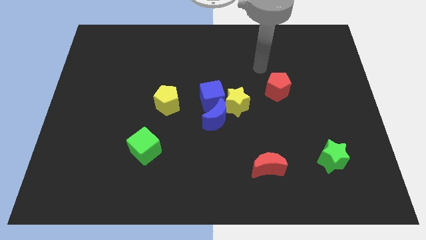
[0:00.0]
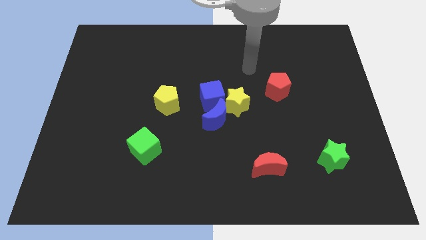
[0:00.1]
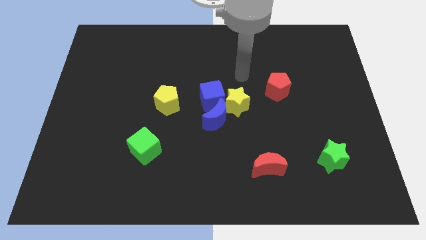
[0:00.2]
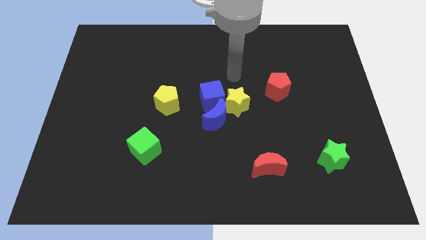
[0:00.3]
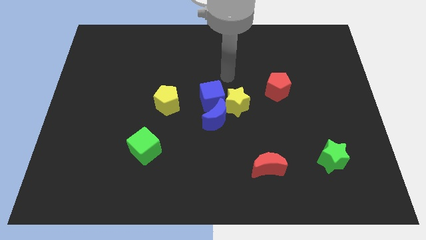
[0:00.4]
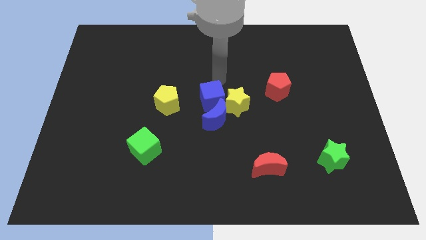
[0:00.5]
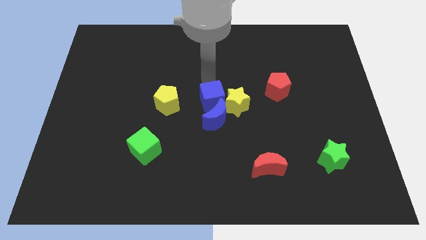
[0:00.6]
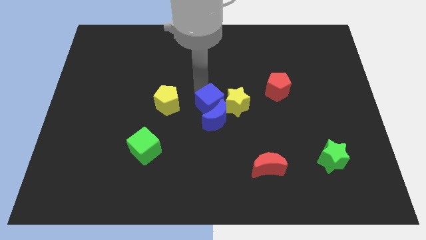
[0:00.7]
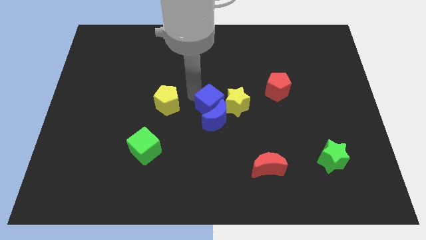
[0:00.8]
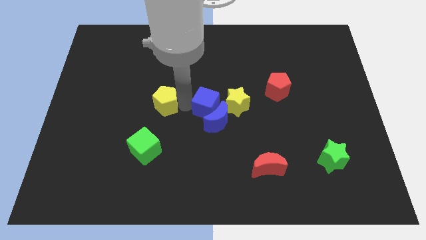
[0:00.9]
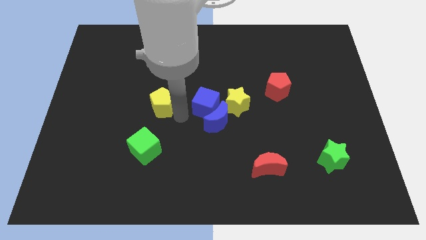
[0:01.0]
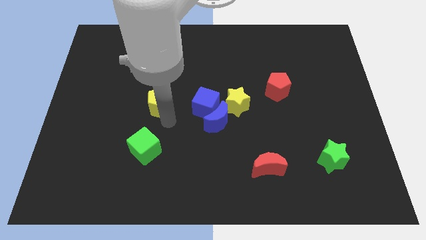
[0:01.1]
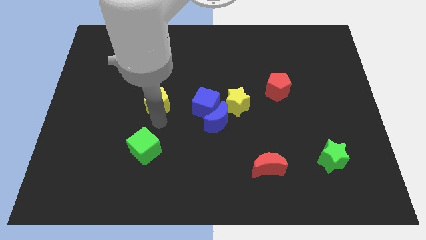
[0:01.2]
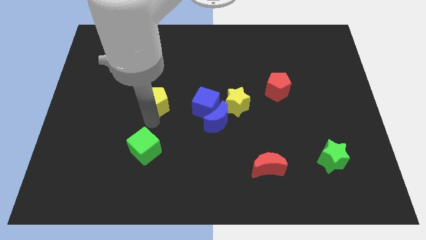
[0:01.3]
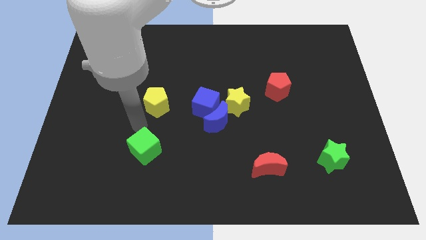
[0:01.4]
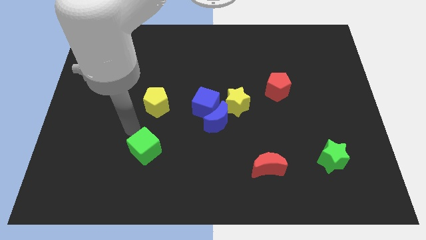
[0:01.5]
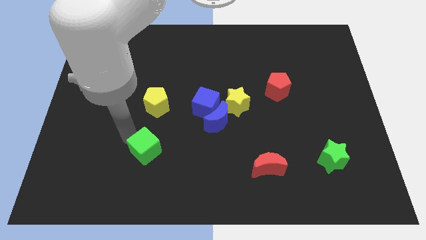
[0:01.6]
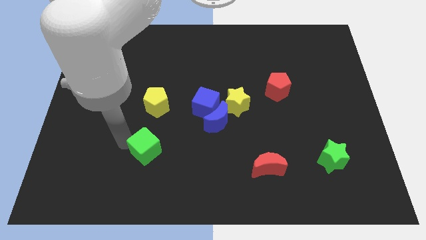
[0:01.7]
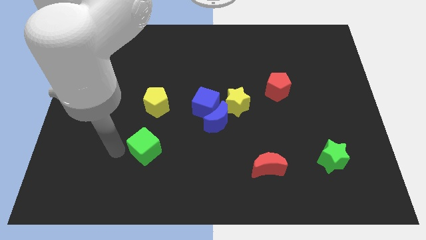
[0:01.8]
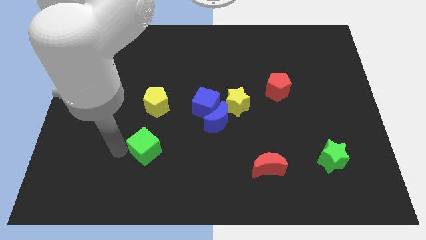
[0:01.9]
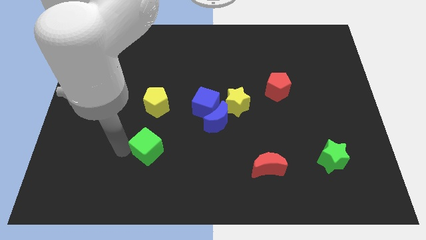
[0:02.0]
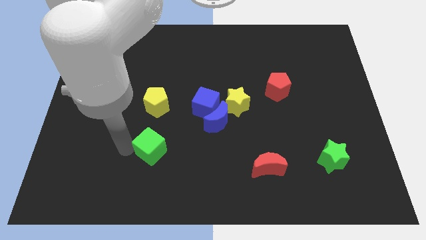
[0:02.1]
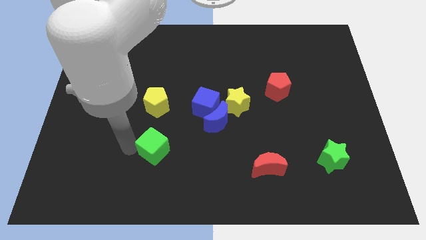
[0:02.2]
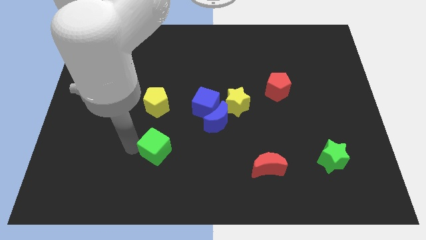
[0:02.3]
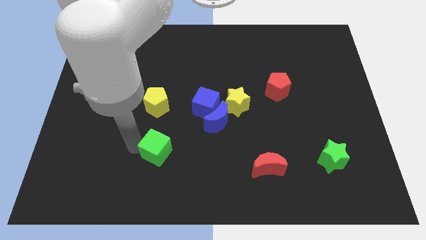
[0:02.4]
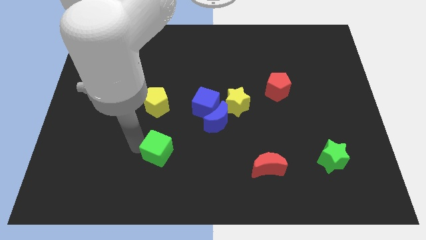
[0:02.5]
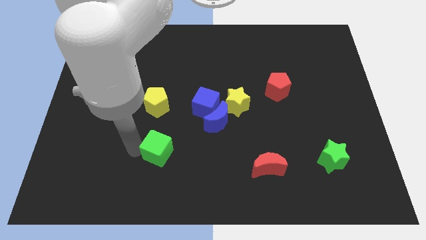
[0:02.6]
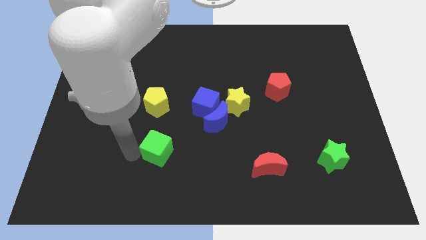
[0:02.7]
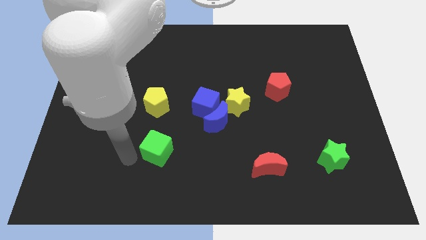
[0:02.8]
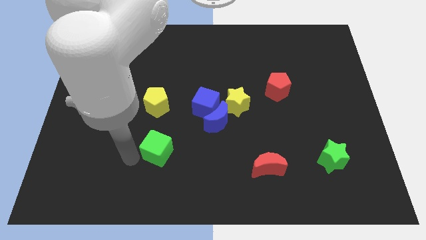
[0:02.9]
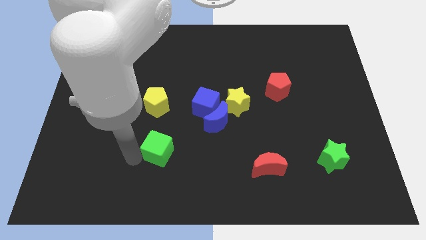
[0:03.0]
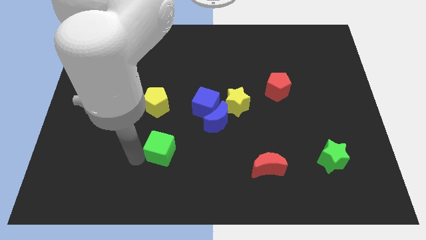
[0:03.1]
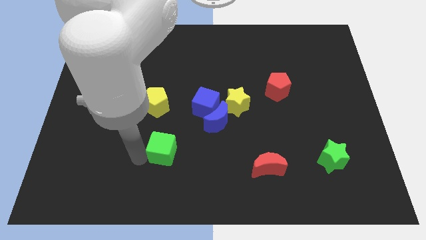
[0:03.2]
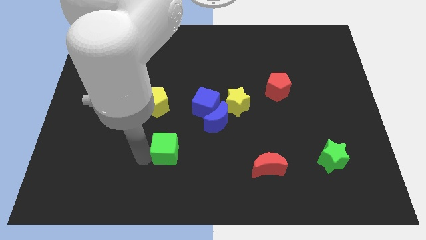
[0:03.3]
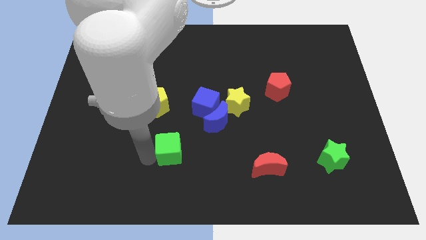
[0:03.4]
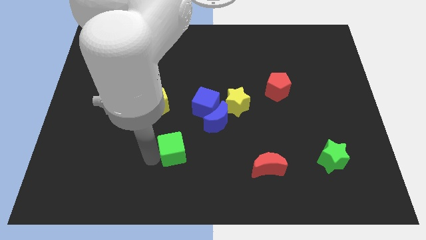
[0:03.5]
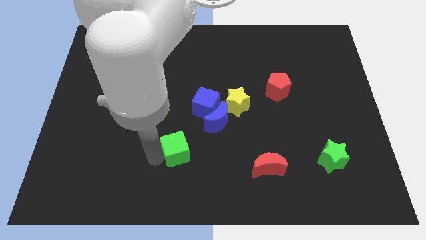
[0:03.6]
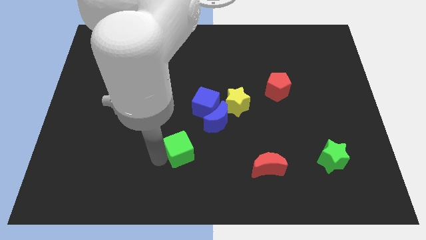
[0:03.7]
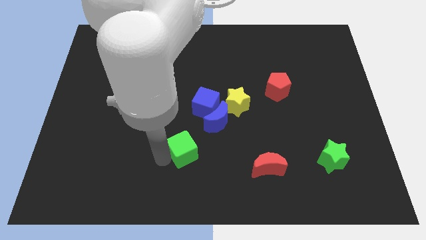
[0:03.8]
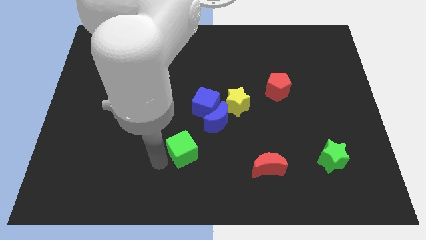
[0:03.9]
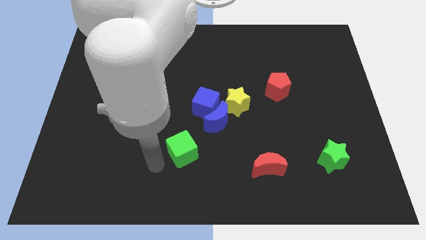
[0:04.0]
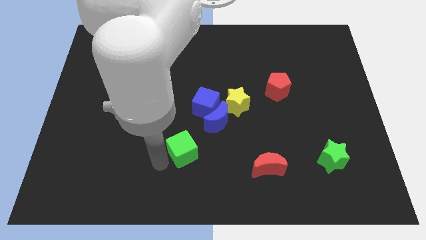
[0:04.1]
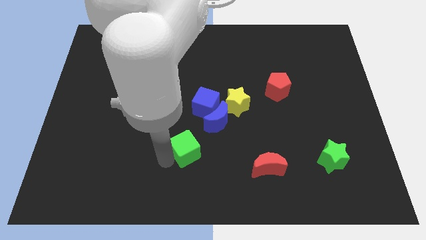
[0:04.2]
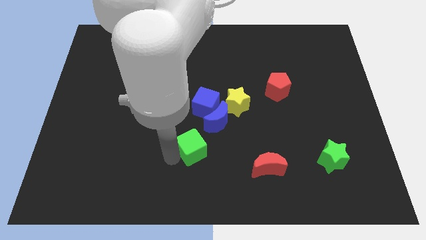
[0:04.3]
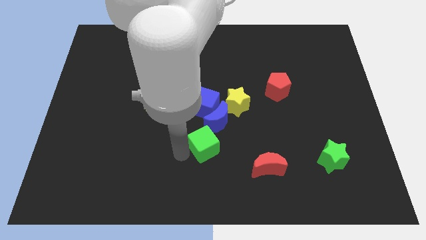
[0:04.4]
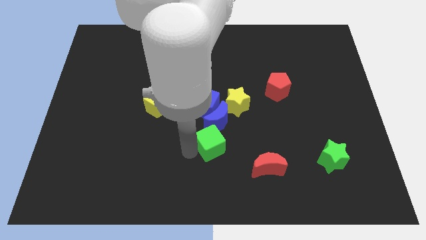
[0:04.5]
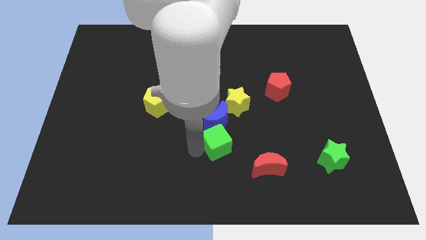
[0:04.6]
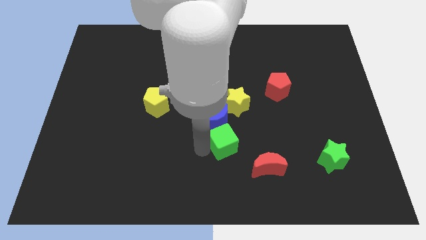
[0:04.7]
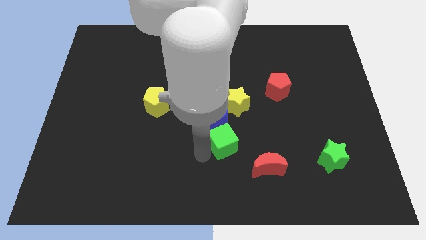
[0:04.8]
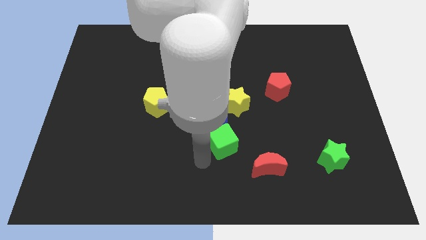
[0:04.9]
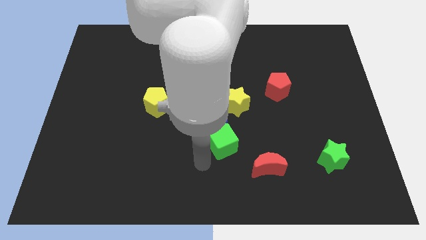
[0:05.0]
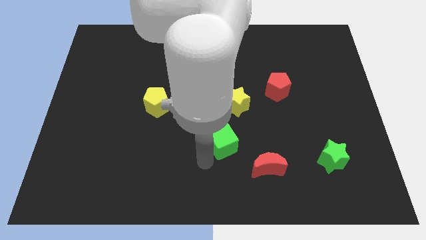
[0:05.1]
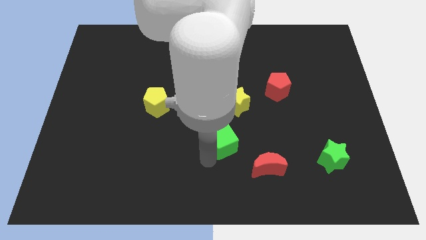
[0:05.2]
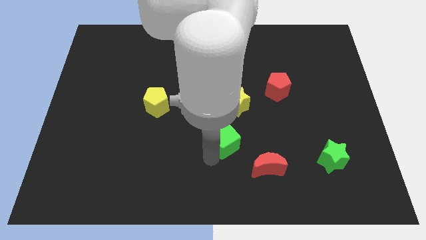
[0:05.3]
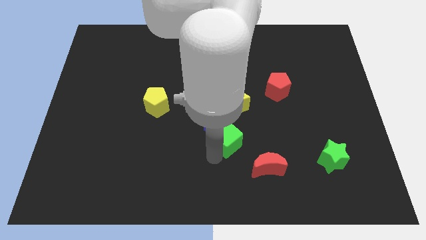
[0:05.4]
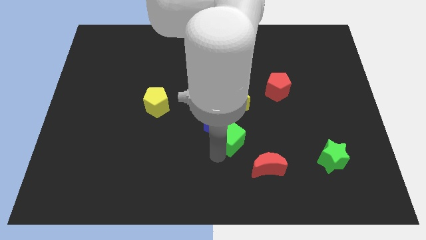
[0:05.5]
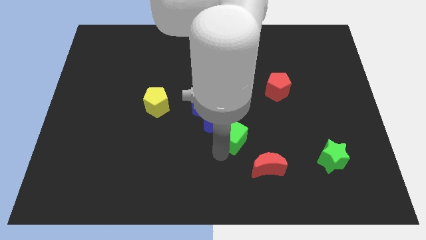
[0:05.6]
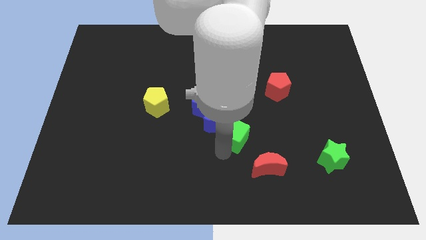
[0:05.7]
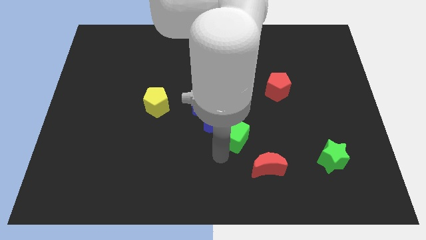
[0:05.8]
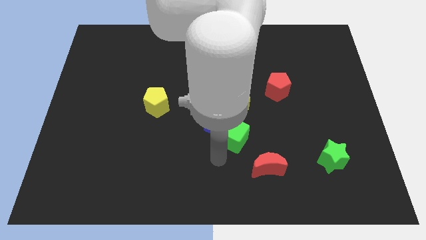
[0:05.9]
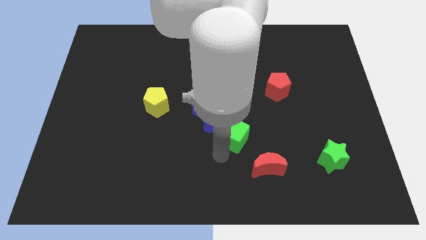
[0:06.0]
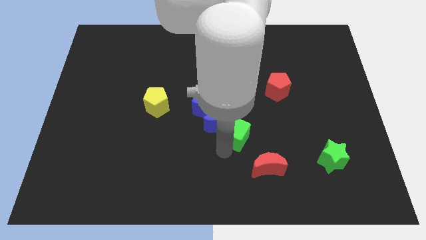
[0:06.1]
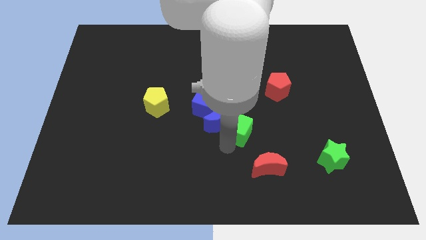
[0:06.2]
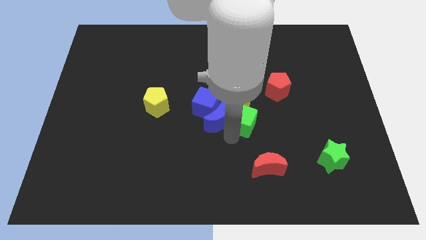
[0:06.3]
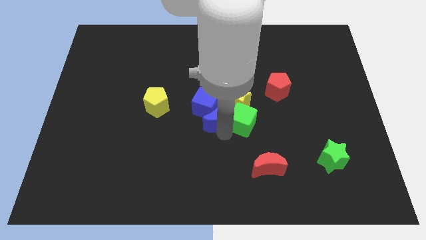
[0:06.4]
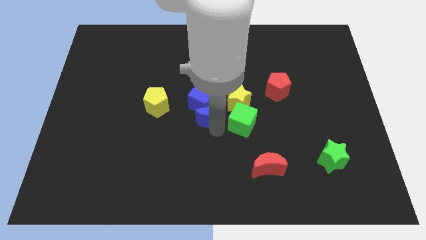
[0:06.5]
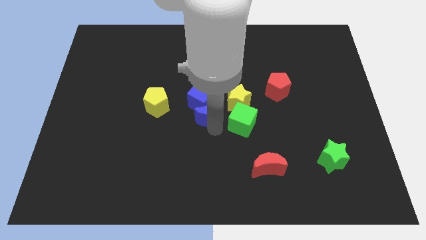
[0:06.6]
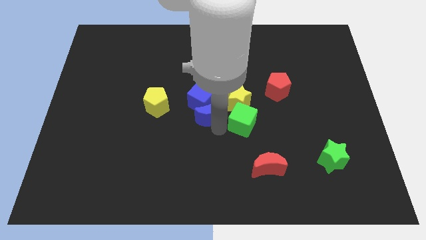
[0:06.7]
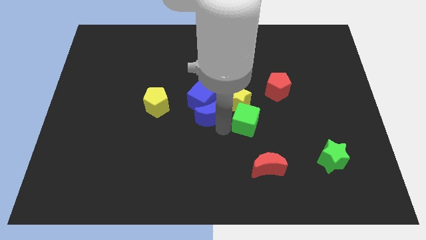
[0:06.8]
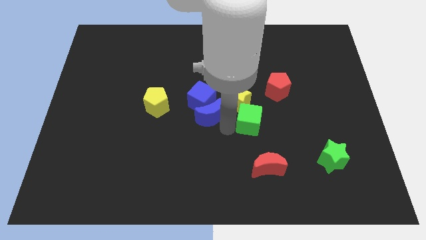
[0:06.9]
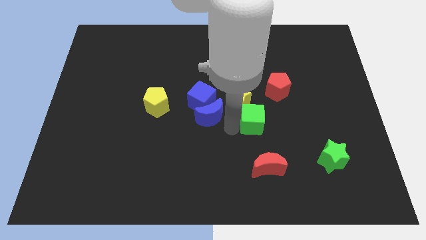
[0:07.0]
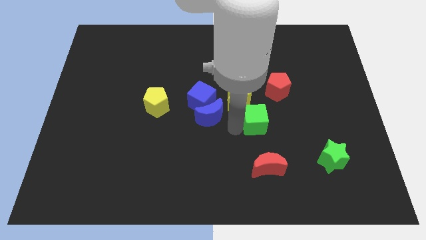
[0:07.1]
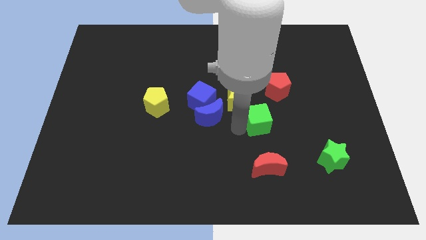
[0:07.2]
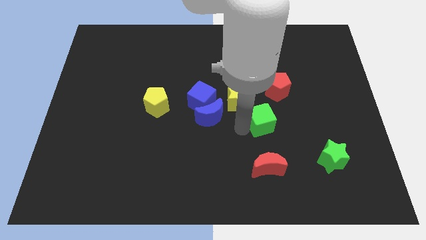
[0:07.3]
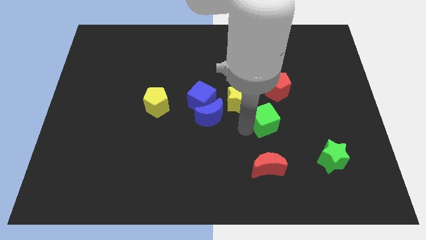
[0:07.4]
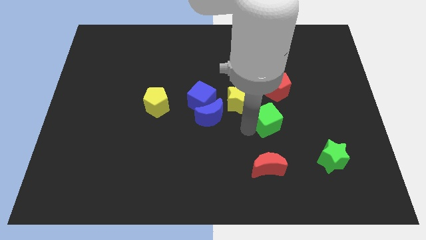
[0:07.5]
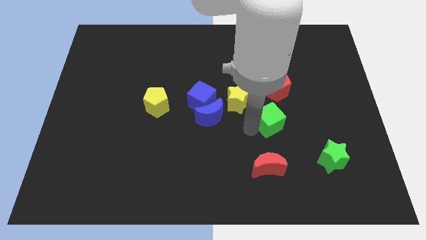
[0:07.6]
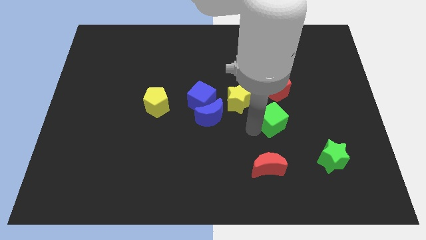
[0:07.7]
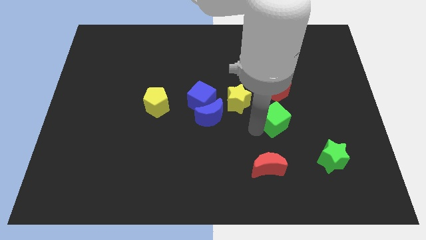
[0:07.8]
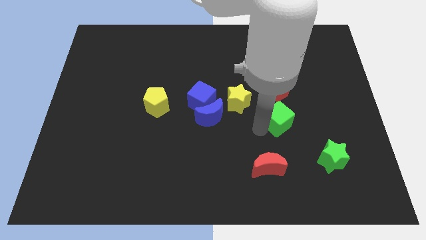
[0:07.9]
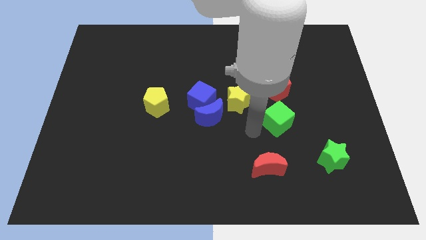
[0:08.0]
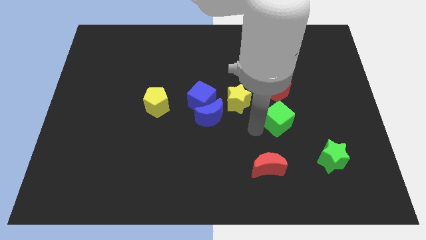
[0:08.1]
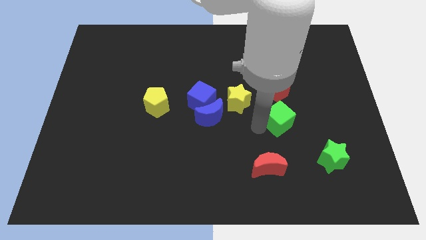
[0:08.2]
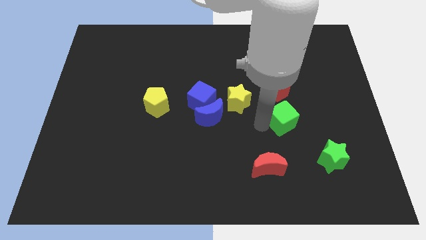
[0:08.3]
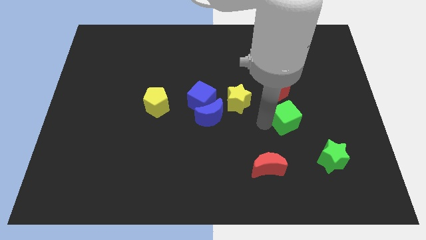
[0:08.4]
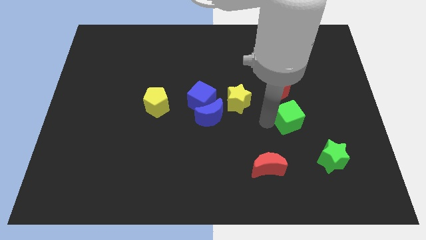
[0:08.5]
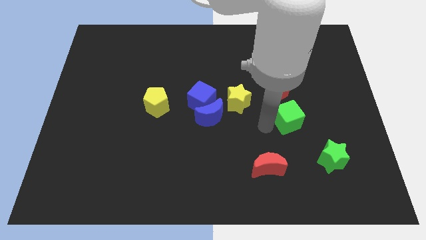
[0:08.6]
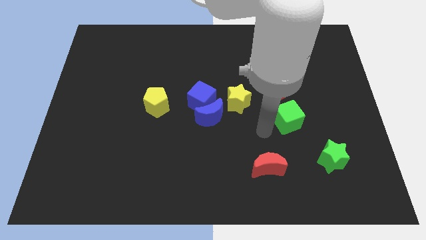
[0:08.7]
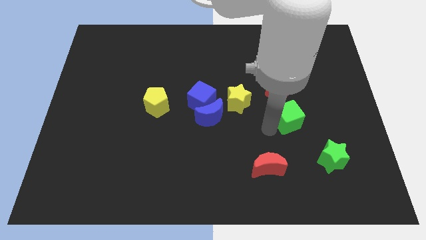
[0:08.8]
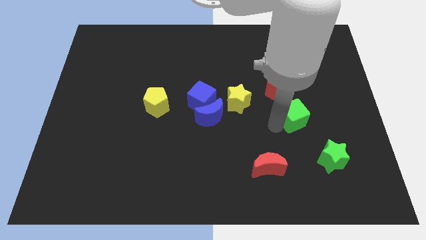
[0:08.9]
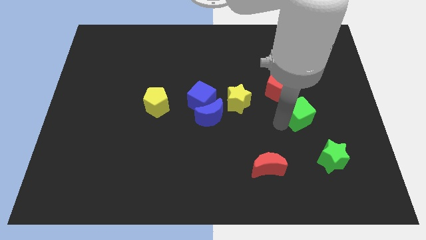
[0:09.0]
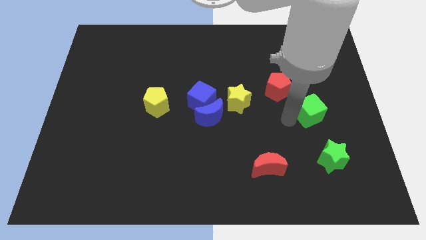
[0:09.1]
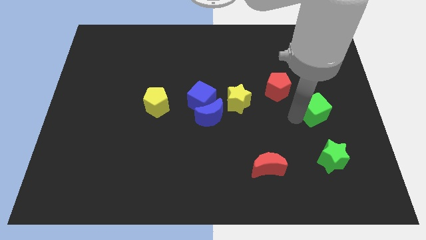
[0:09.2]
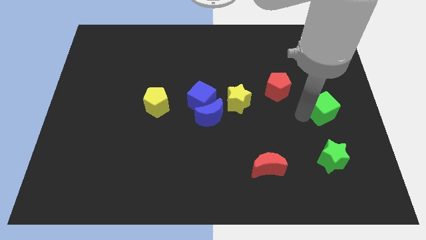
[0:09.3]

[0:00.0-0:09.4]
move the green cube to the right side of the board
